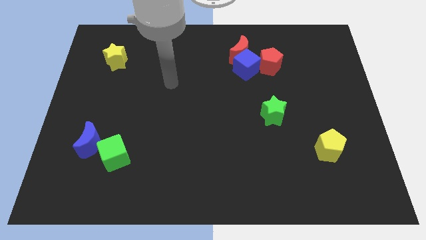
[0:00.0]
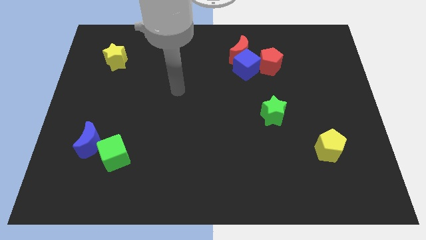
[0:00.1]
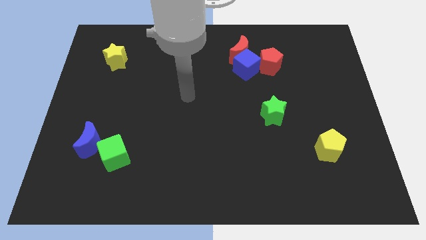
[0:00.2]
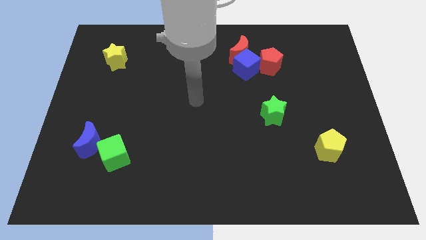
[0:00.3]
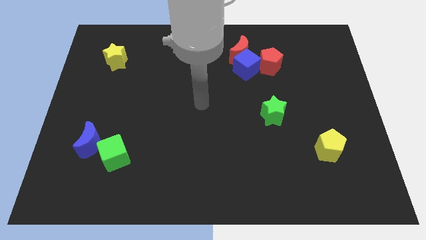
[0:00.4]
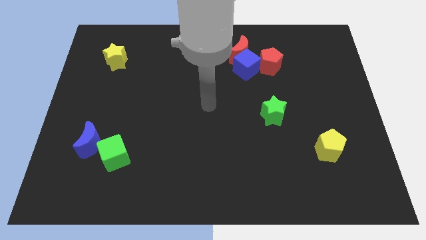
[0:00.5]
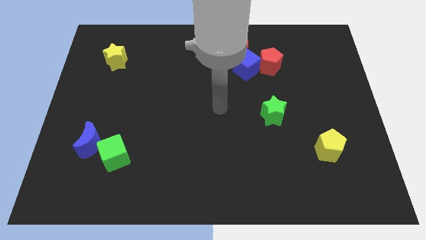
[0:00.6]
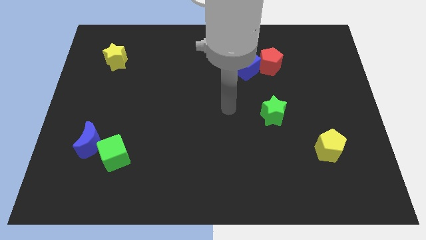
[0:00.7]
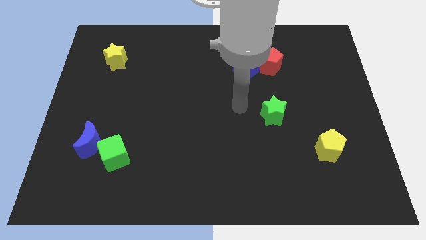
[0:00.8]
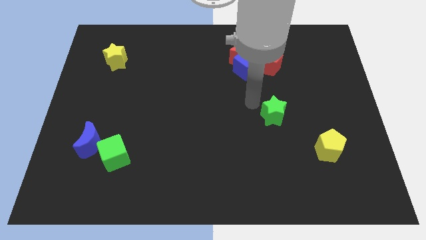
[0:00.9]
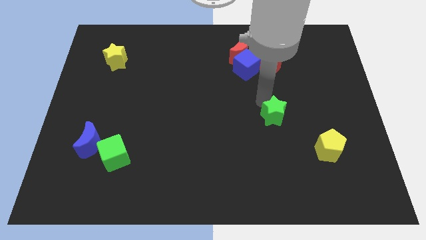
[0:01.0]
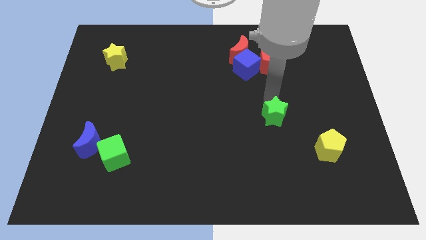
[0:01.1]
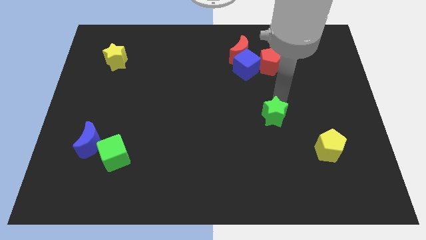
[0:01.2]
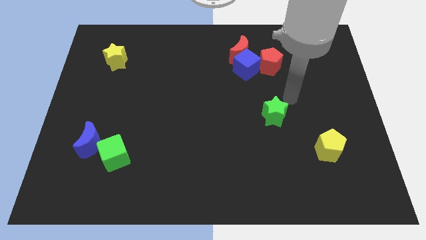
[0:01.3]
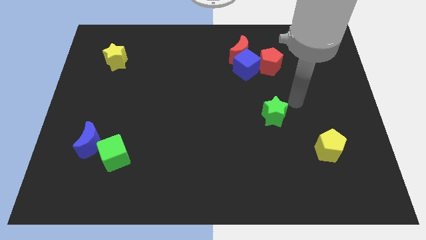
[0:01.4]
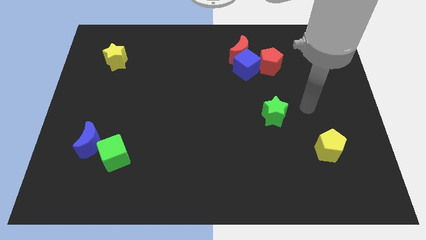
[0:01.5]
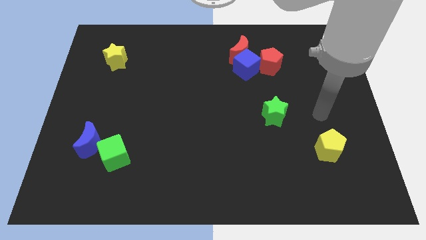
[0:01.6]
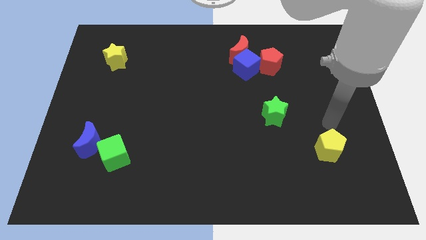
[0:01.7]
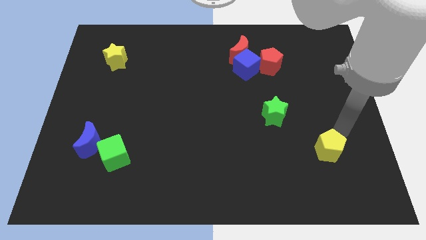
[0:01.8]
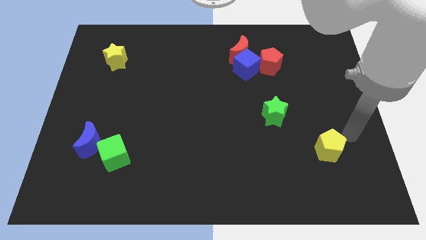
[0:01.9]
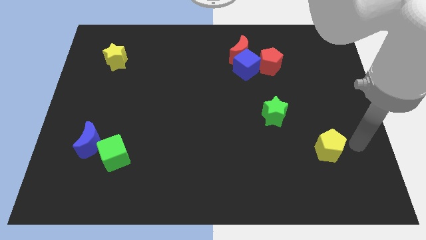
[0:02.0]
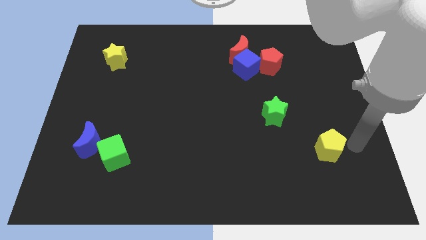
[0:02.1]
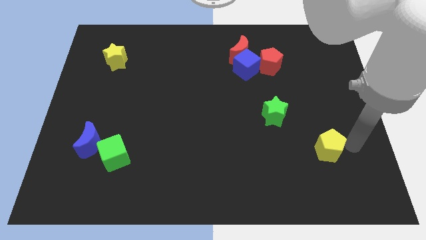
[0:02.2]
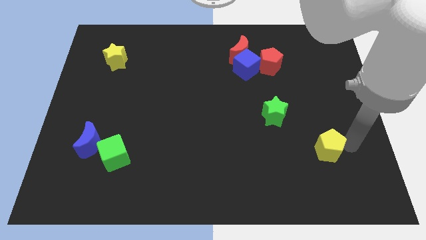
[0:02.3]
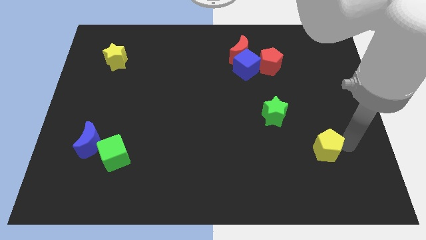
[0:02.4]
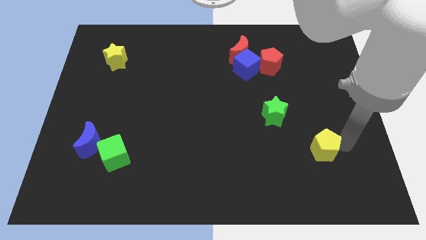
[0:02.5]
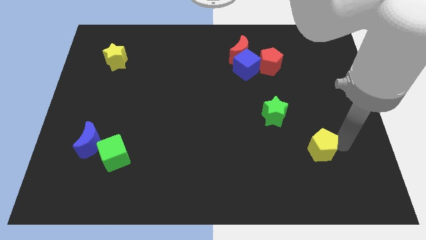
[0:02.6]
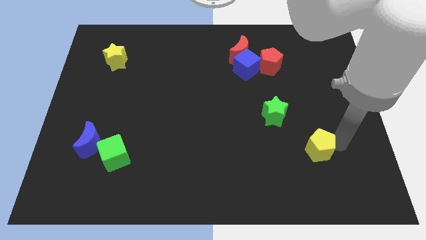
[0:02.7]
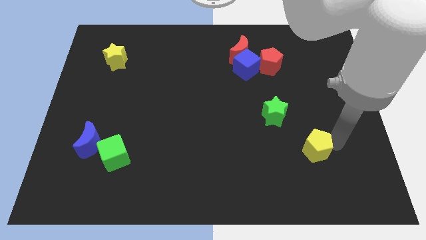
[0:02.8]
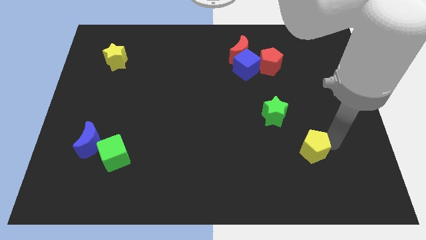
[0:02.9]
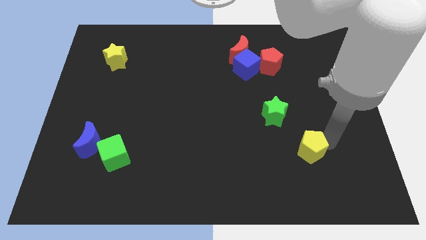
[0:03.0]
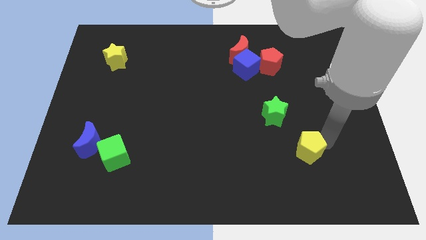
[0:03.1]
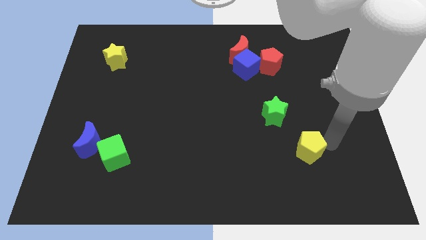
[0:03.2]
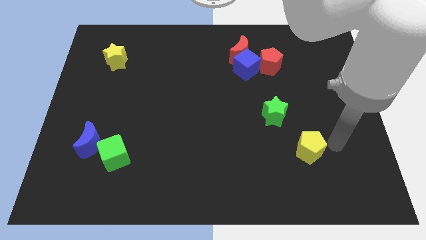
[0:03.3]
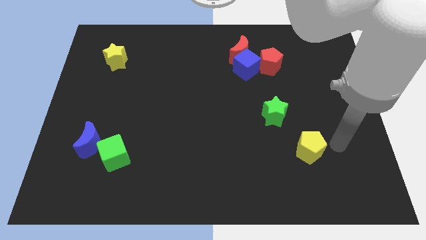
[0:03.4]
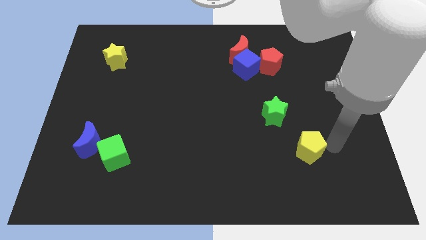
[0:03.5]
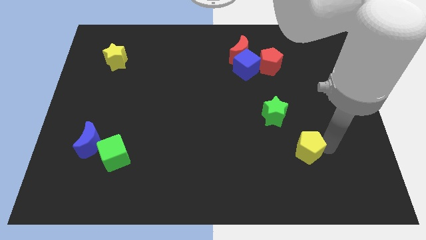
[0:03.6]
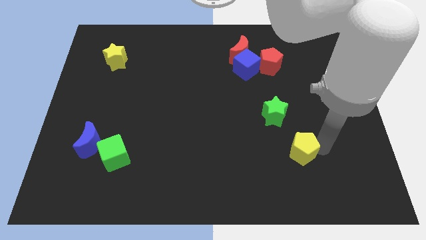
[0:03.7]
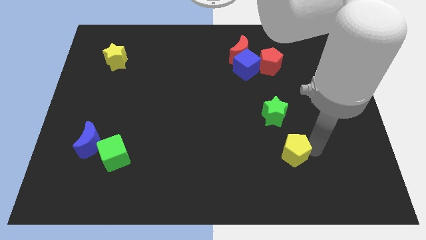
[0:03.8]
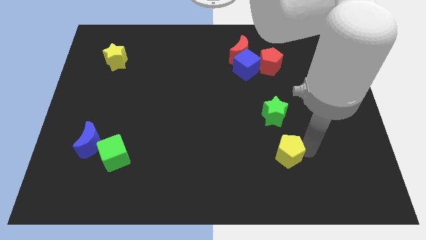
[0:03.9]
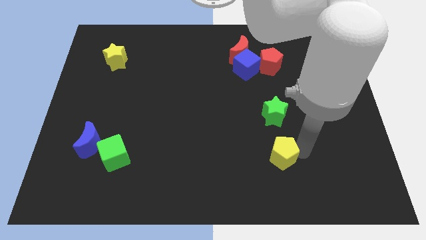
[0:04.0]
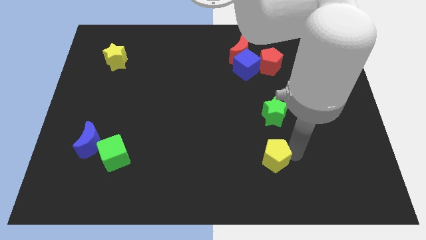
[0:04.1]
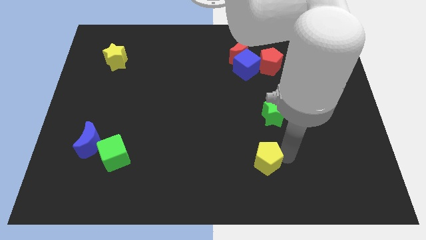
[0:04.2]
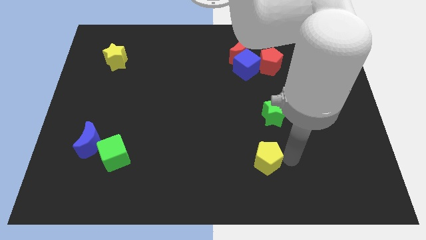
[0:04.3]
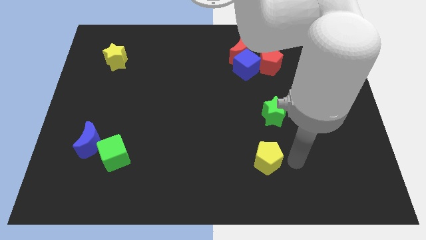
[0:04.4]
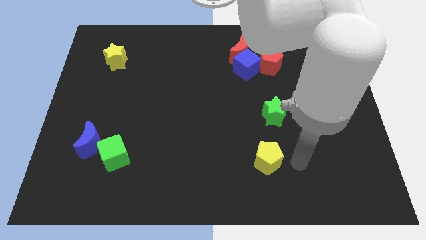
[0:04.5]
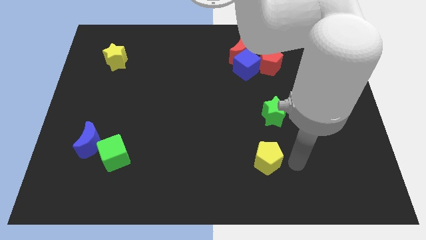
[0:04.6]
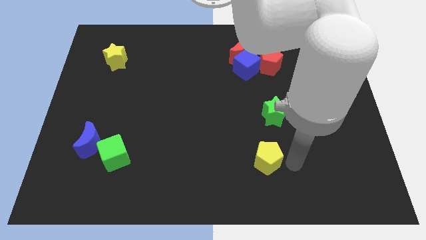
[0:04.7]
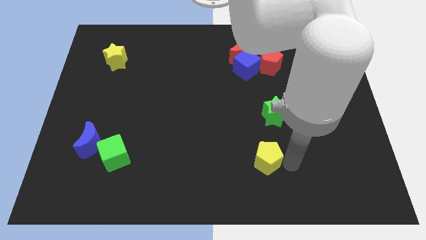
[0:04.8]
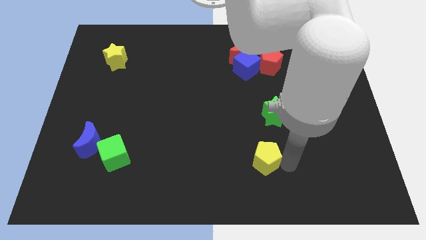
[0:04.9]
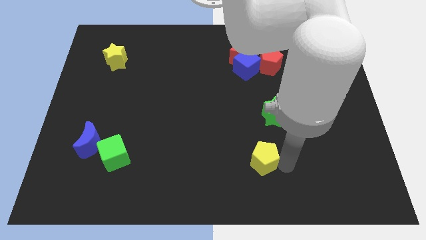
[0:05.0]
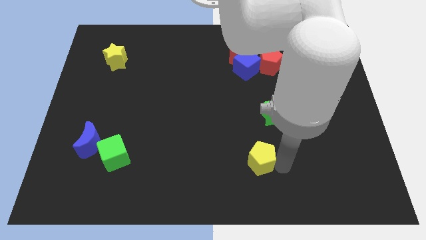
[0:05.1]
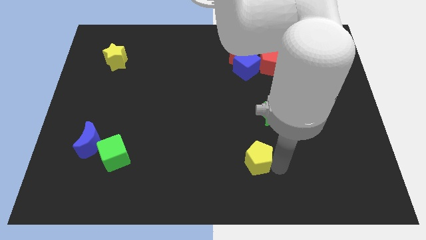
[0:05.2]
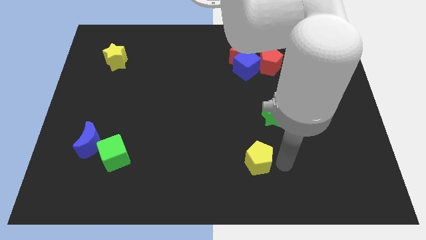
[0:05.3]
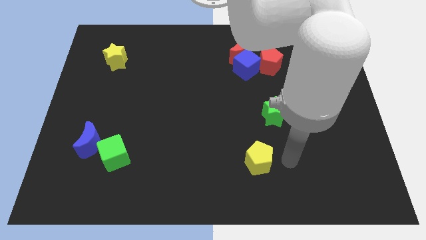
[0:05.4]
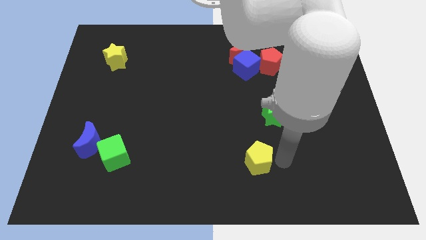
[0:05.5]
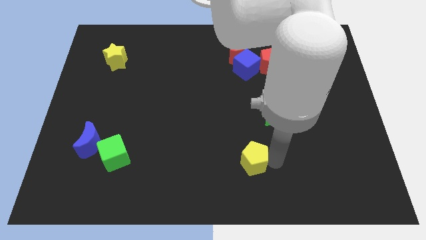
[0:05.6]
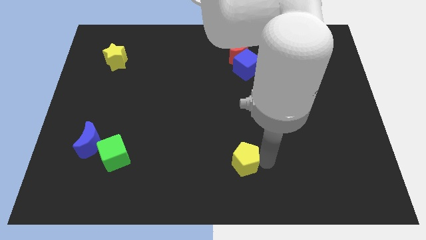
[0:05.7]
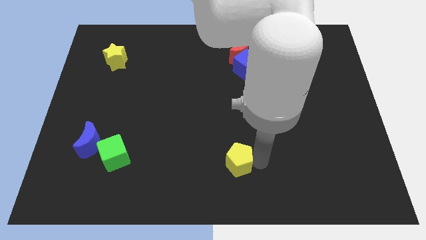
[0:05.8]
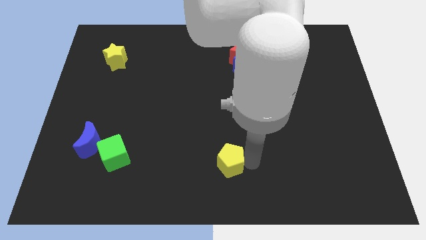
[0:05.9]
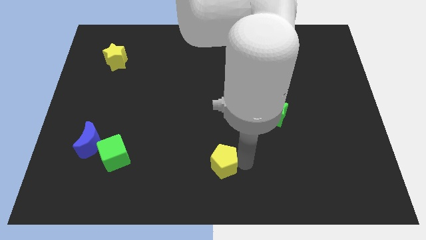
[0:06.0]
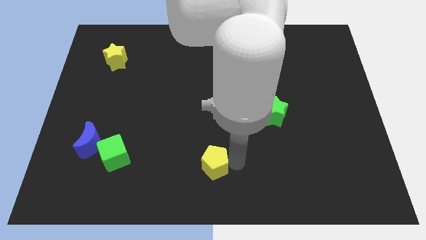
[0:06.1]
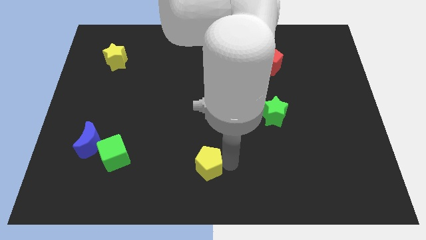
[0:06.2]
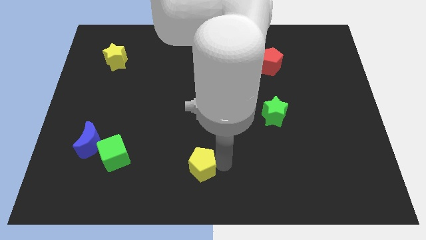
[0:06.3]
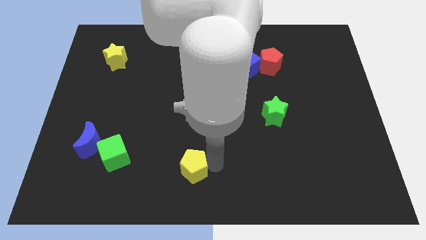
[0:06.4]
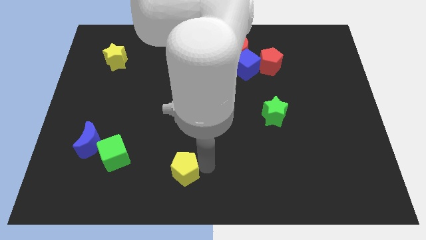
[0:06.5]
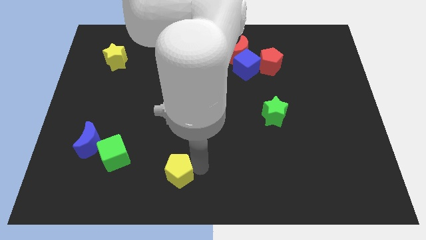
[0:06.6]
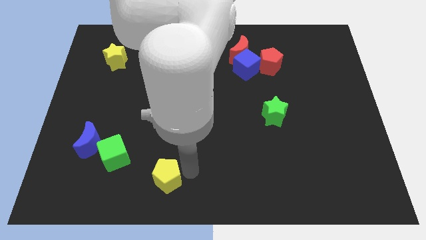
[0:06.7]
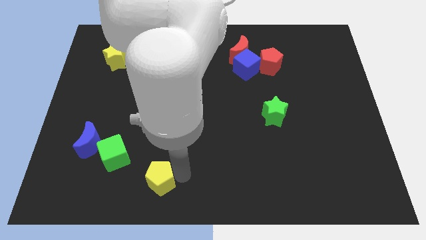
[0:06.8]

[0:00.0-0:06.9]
put the yellow pentagon to the bottom right side of the green cube

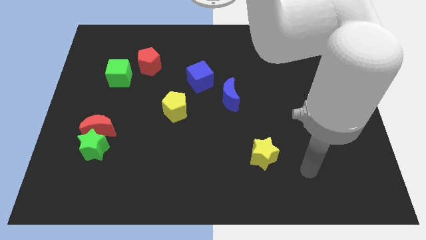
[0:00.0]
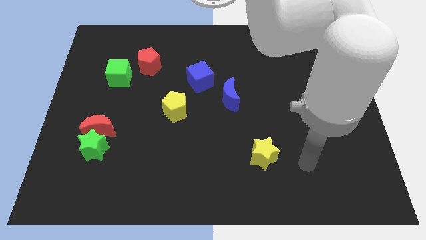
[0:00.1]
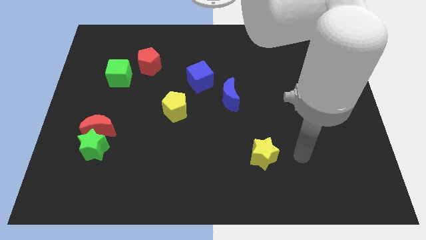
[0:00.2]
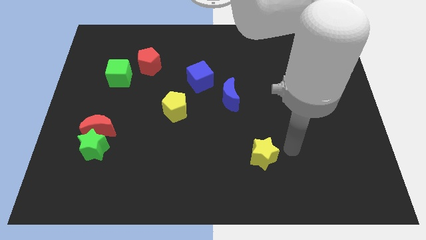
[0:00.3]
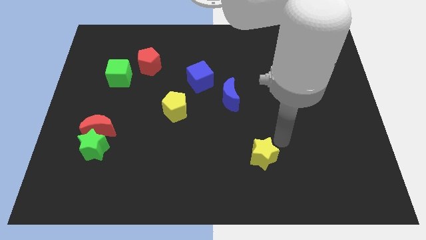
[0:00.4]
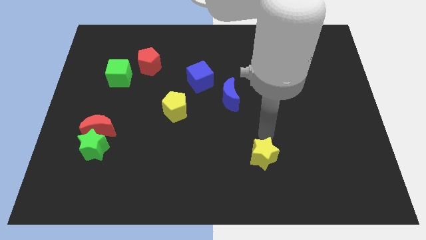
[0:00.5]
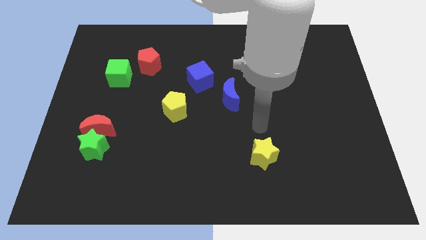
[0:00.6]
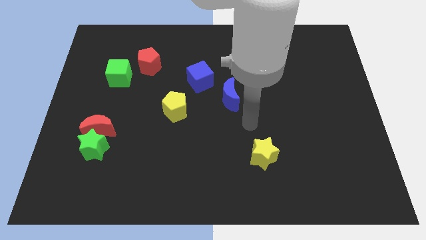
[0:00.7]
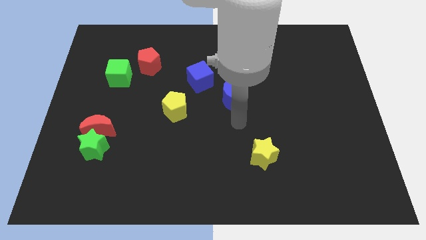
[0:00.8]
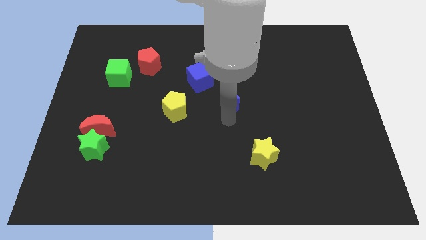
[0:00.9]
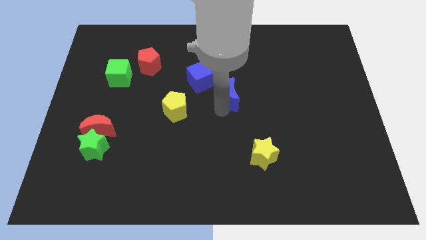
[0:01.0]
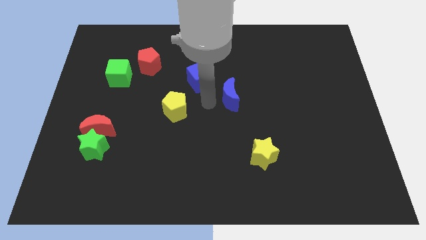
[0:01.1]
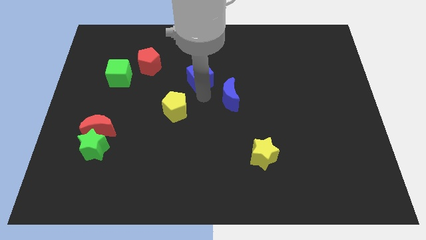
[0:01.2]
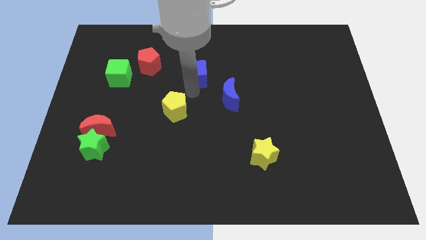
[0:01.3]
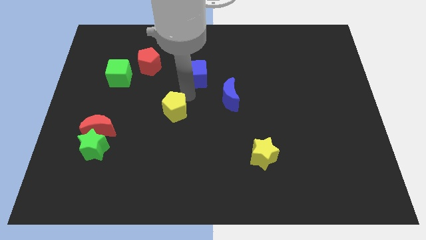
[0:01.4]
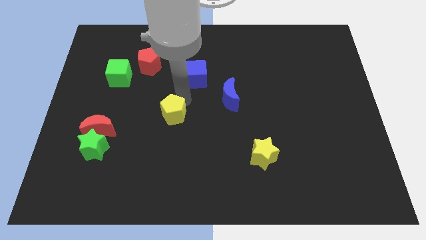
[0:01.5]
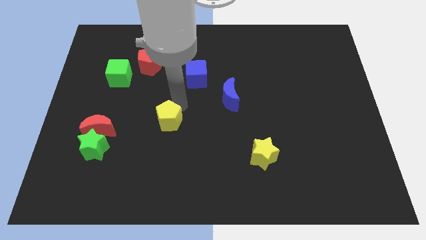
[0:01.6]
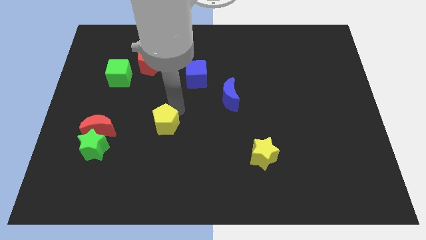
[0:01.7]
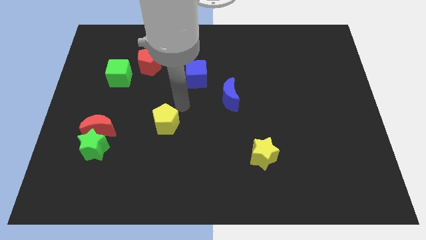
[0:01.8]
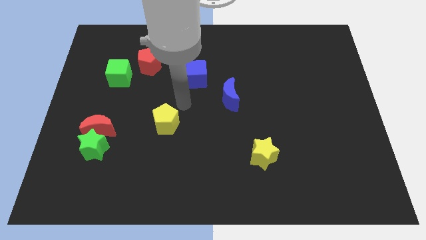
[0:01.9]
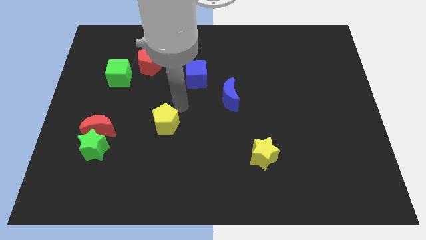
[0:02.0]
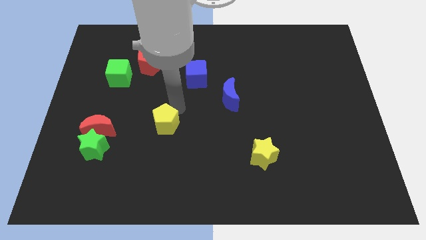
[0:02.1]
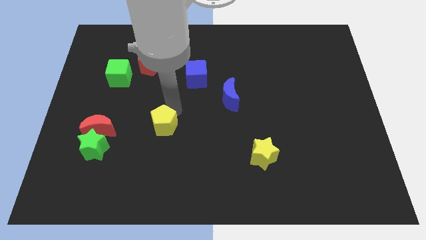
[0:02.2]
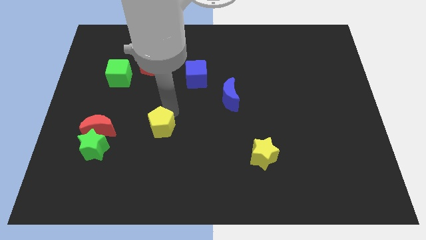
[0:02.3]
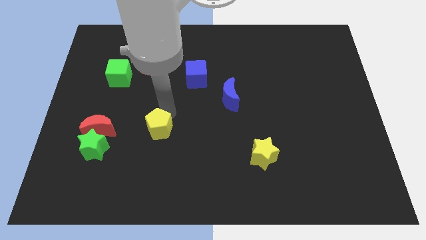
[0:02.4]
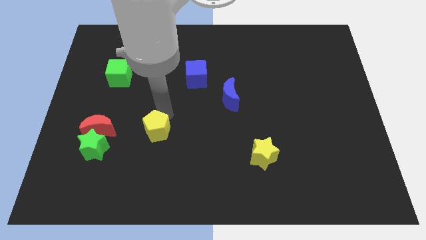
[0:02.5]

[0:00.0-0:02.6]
move the yellow pentagon right of the green star
